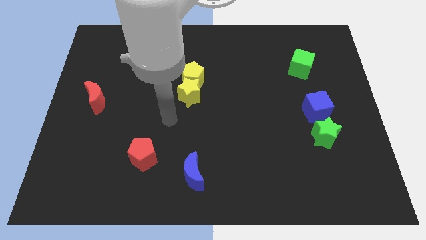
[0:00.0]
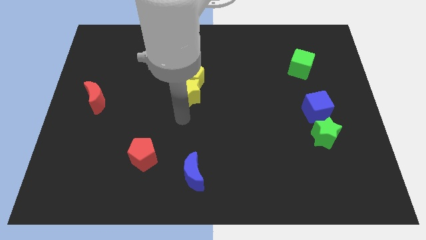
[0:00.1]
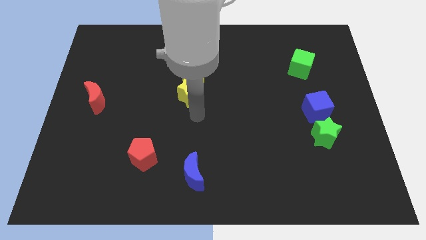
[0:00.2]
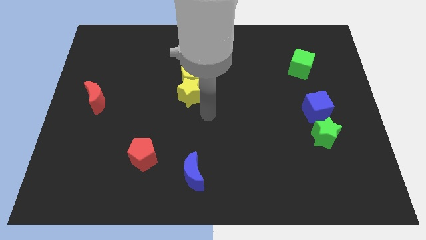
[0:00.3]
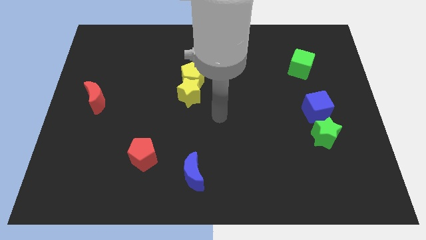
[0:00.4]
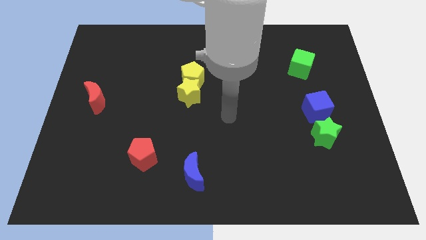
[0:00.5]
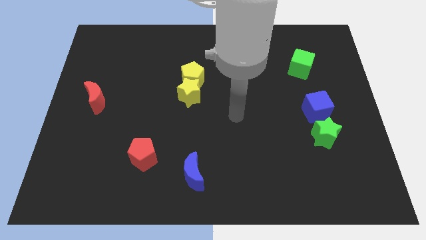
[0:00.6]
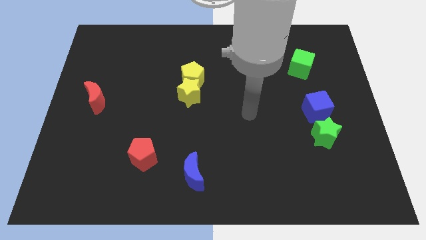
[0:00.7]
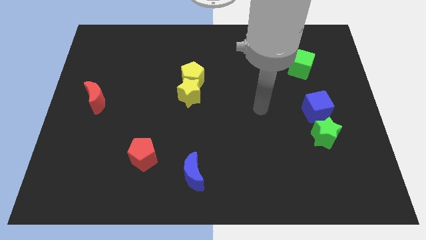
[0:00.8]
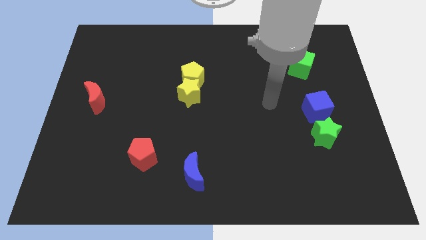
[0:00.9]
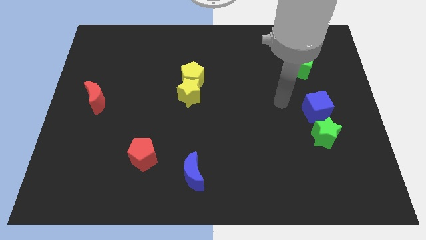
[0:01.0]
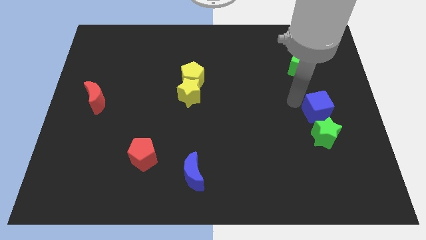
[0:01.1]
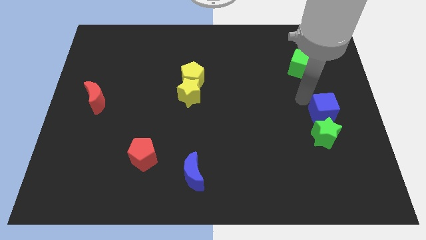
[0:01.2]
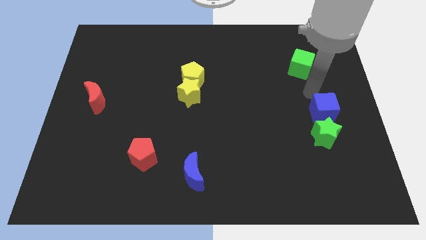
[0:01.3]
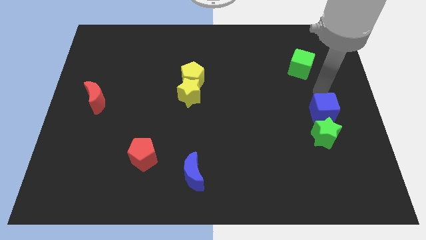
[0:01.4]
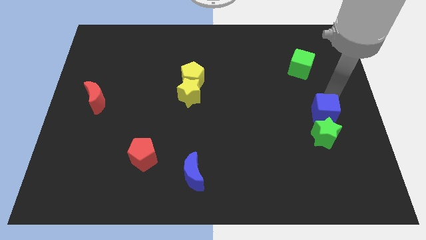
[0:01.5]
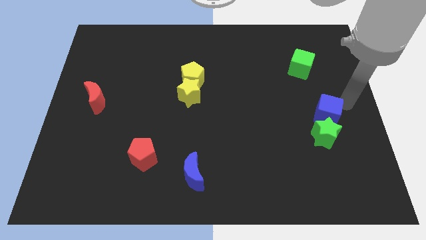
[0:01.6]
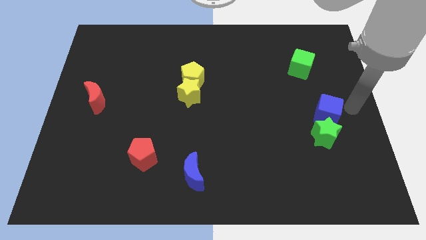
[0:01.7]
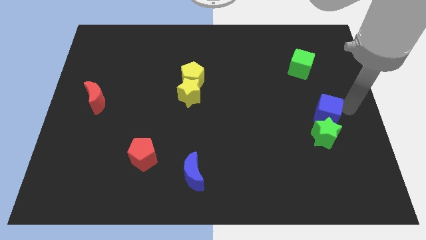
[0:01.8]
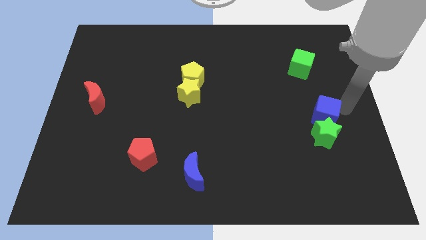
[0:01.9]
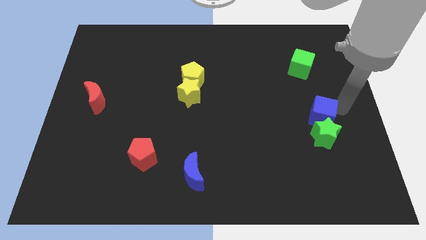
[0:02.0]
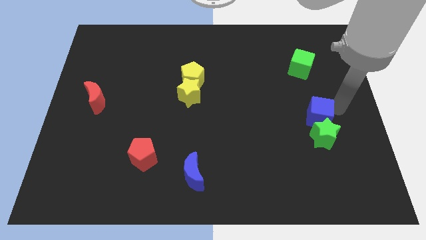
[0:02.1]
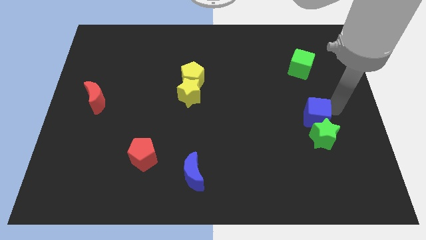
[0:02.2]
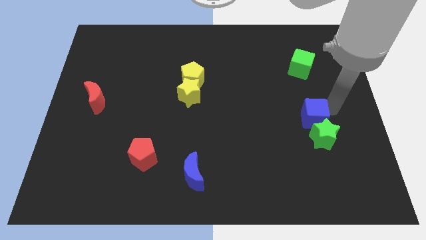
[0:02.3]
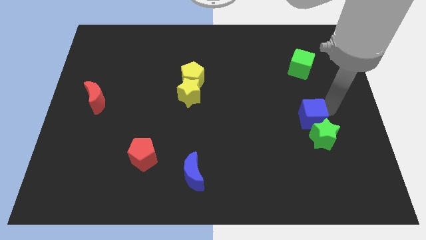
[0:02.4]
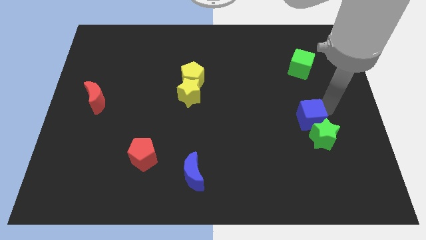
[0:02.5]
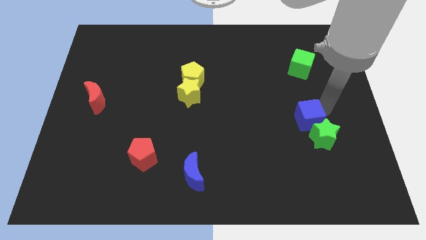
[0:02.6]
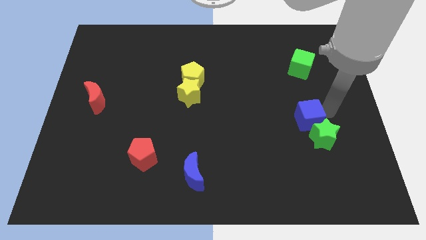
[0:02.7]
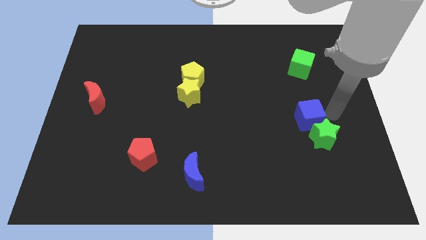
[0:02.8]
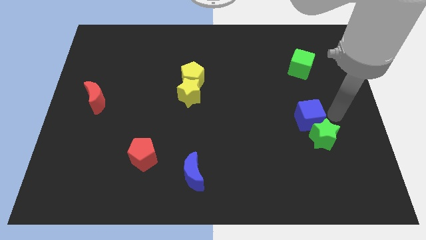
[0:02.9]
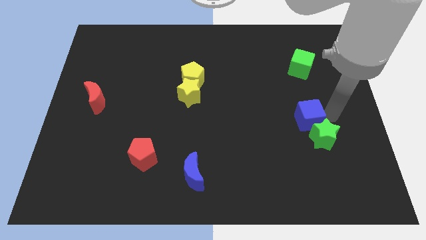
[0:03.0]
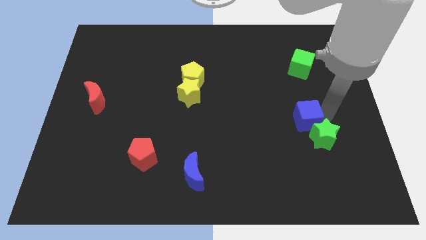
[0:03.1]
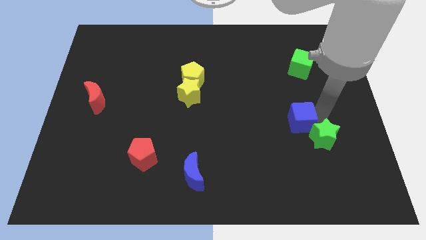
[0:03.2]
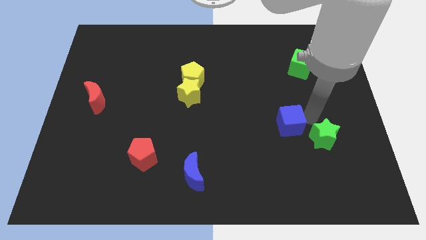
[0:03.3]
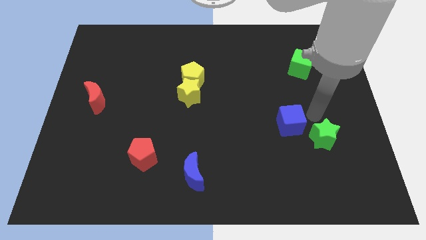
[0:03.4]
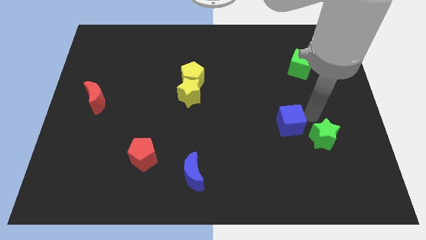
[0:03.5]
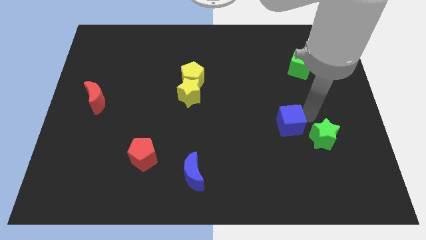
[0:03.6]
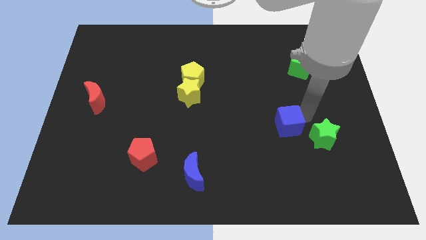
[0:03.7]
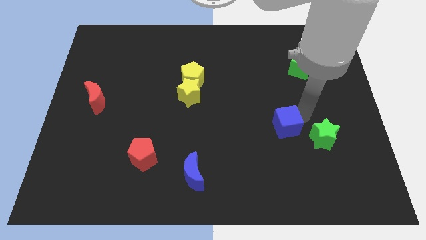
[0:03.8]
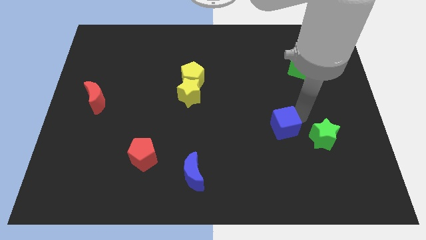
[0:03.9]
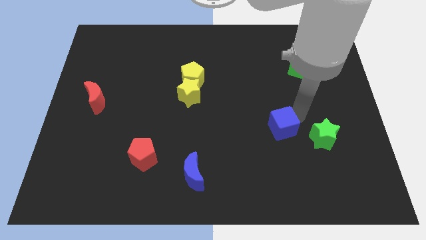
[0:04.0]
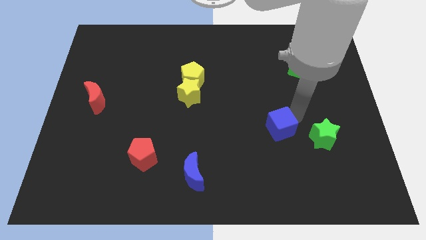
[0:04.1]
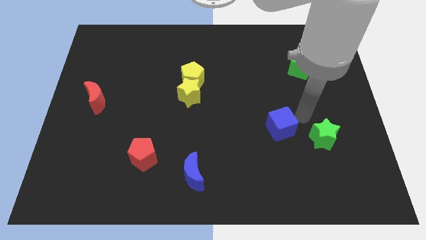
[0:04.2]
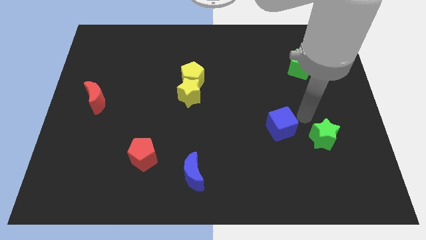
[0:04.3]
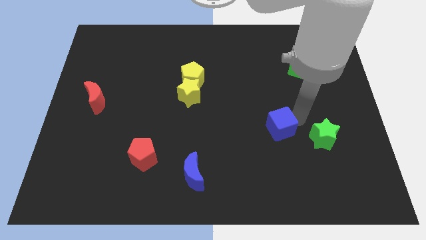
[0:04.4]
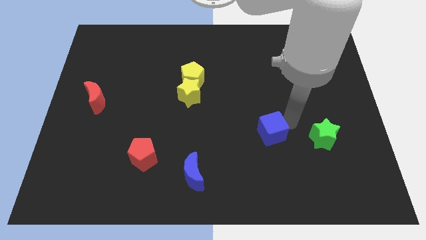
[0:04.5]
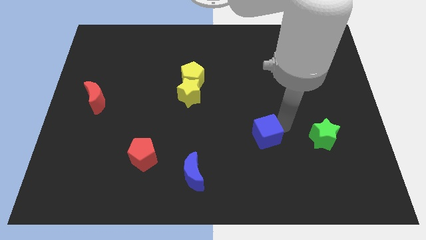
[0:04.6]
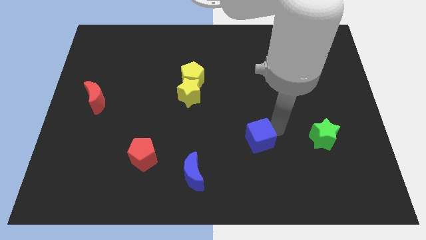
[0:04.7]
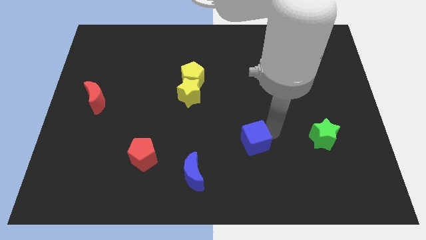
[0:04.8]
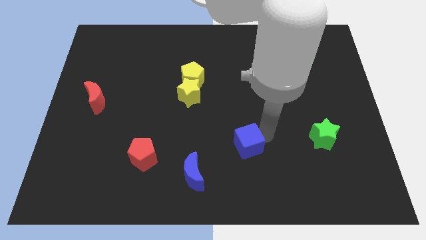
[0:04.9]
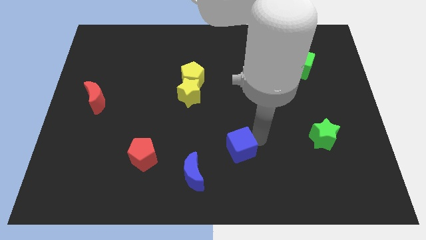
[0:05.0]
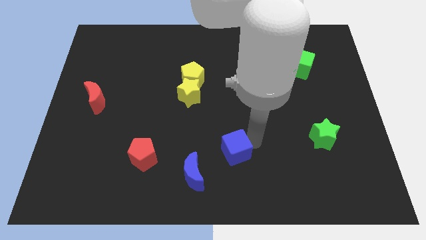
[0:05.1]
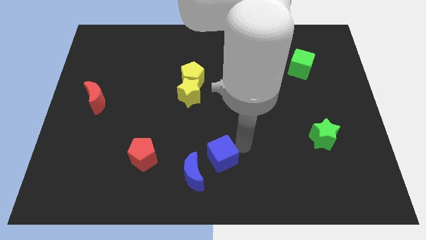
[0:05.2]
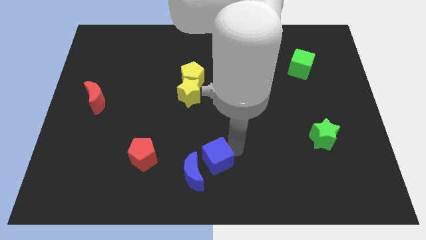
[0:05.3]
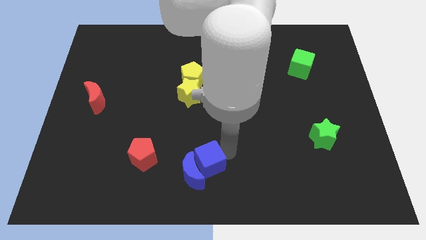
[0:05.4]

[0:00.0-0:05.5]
push the blue cube towards the blue moon

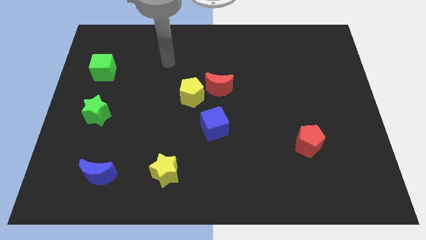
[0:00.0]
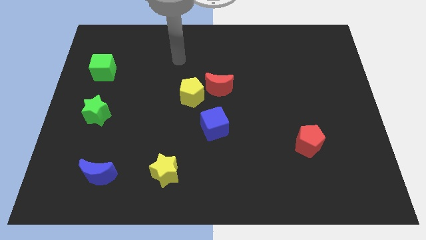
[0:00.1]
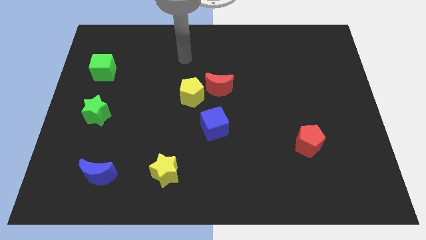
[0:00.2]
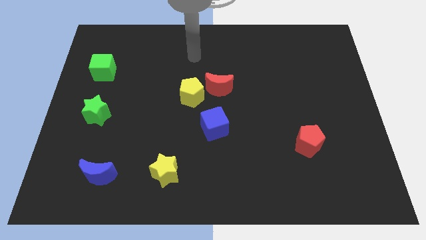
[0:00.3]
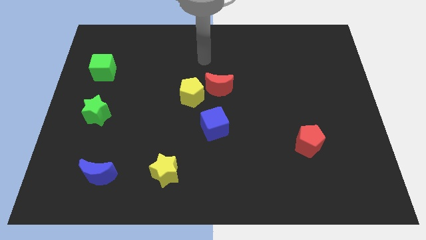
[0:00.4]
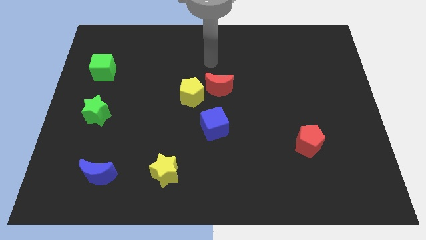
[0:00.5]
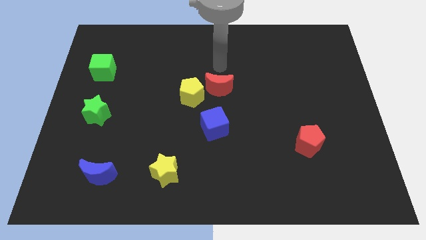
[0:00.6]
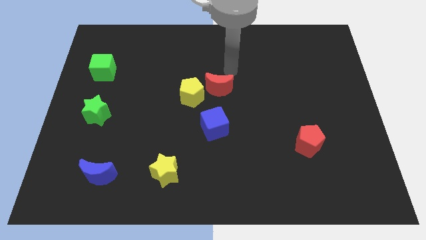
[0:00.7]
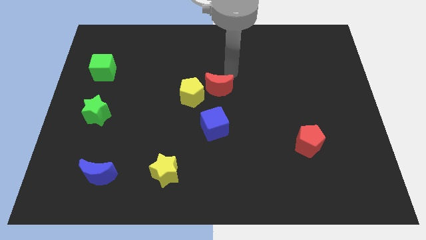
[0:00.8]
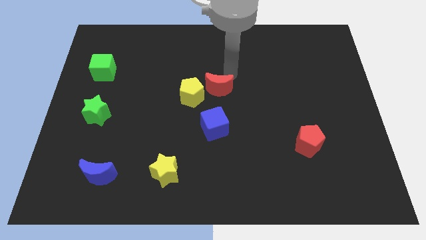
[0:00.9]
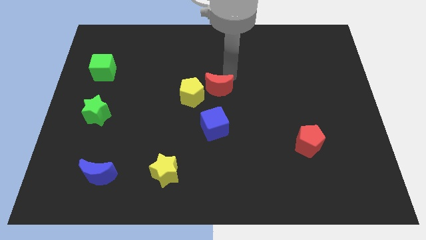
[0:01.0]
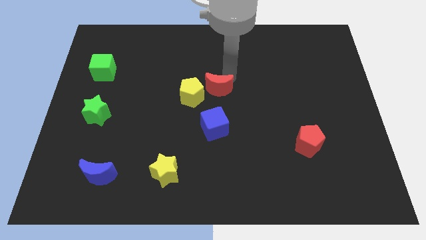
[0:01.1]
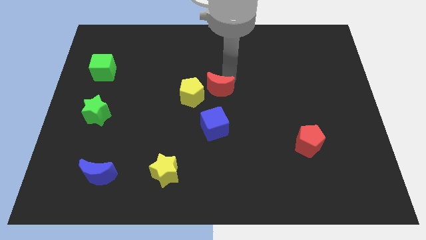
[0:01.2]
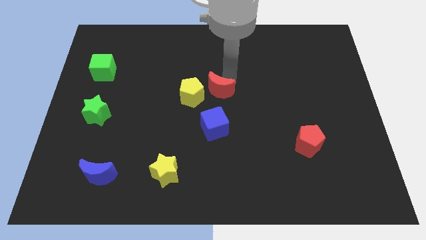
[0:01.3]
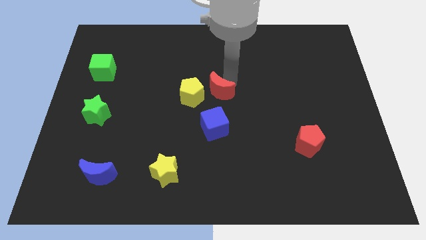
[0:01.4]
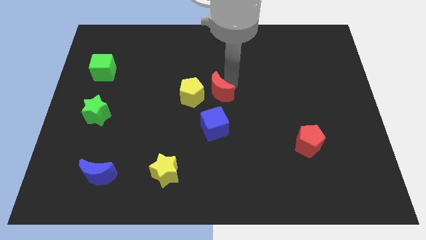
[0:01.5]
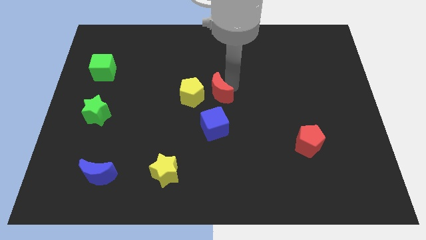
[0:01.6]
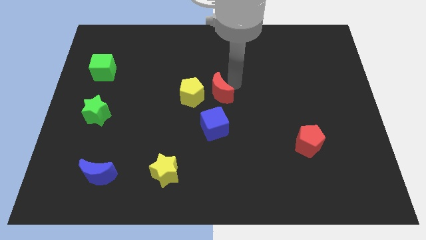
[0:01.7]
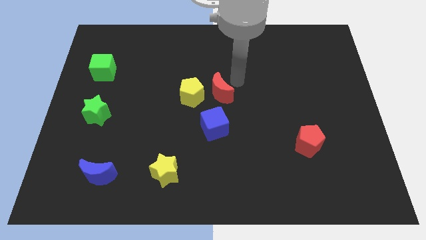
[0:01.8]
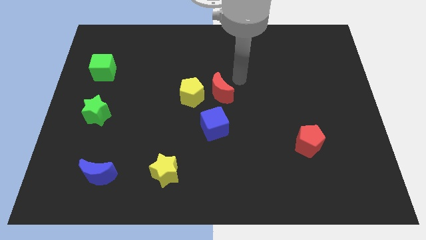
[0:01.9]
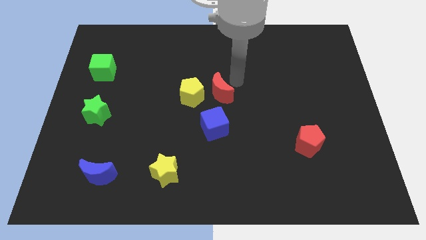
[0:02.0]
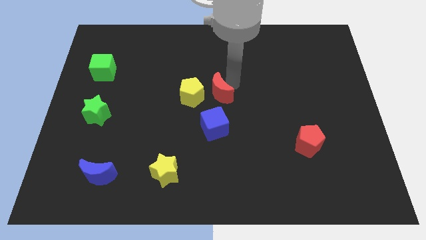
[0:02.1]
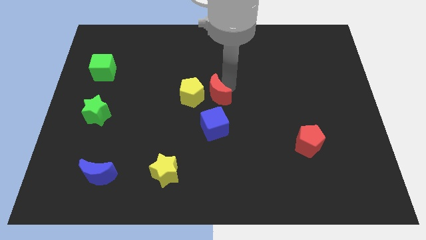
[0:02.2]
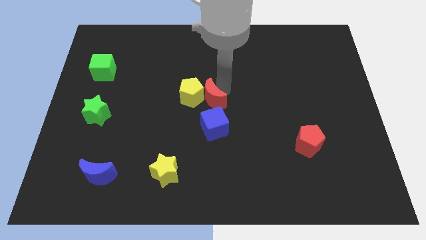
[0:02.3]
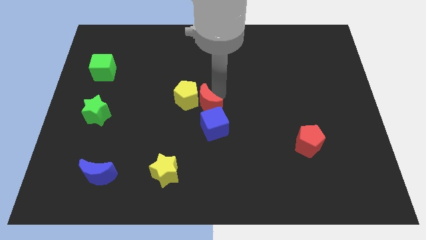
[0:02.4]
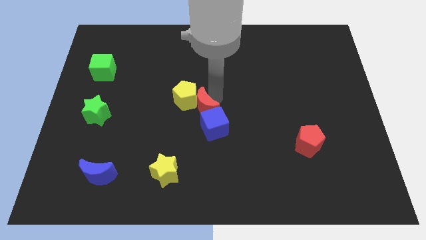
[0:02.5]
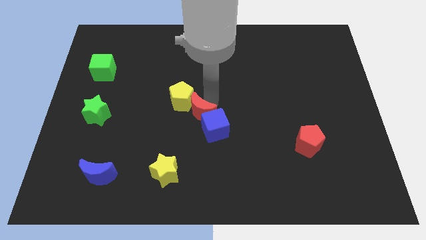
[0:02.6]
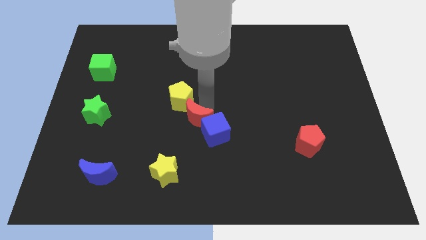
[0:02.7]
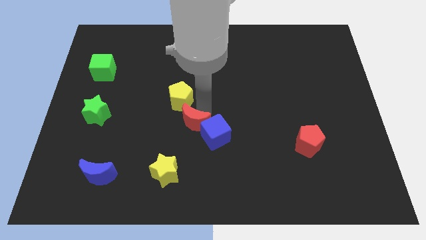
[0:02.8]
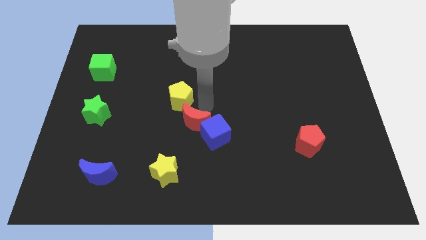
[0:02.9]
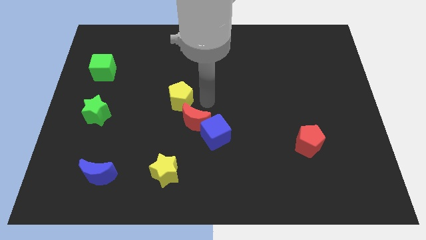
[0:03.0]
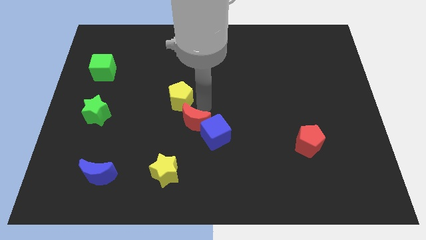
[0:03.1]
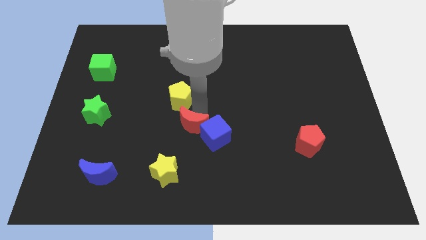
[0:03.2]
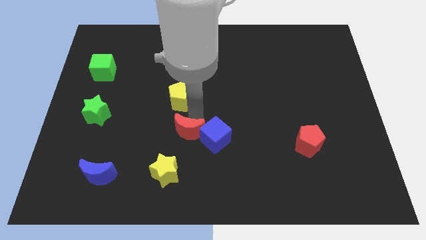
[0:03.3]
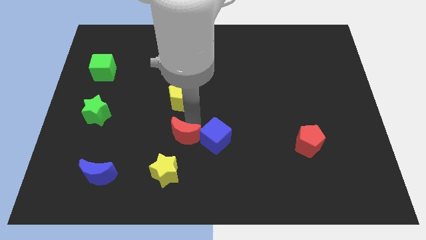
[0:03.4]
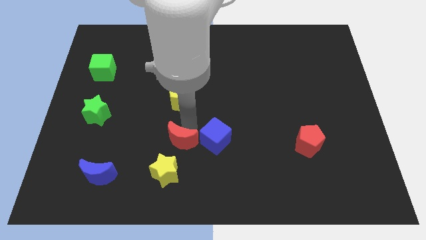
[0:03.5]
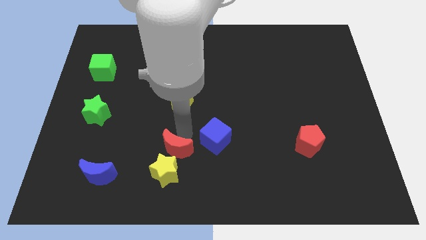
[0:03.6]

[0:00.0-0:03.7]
move the red moon close to the yellow star
